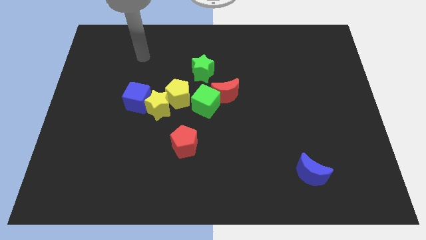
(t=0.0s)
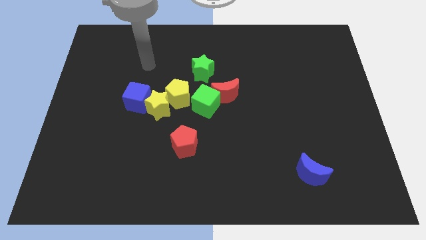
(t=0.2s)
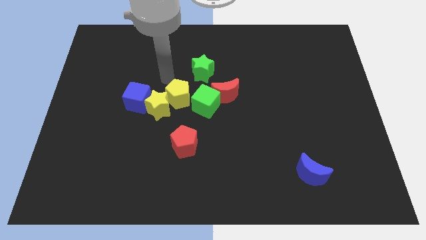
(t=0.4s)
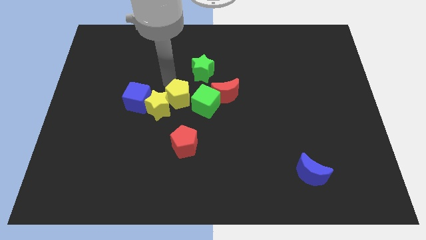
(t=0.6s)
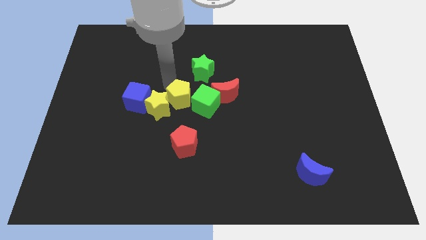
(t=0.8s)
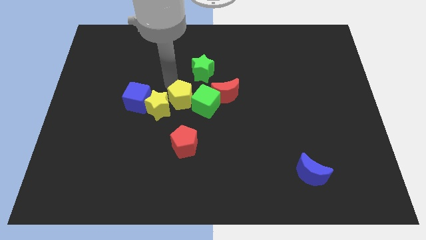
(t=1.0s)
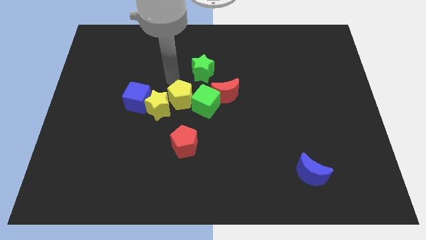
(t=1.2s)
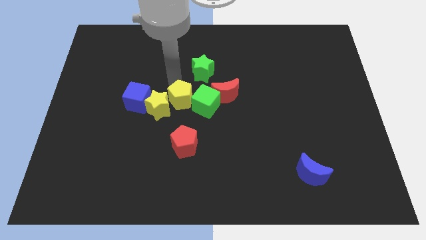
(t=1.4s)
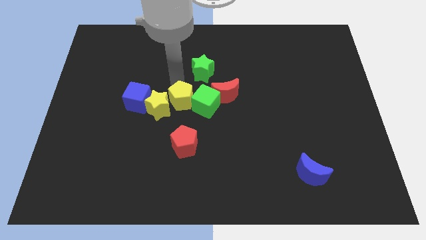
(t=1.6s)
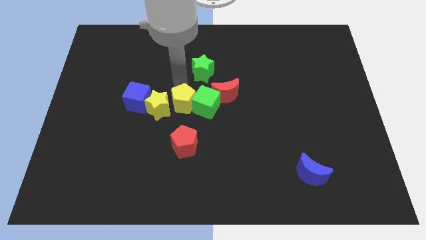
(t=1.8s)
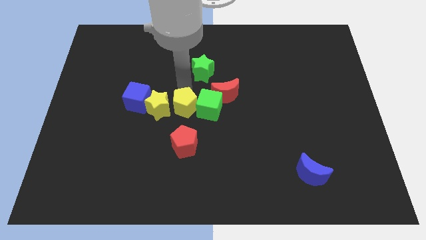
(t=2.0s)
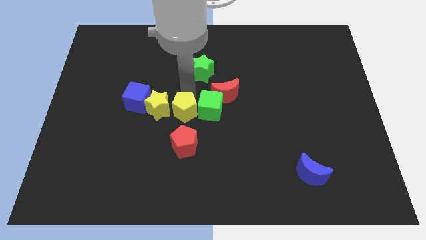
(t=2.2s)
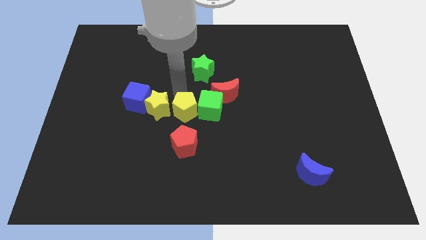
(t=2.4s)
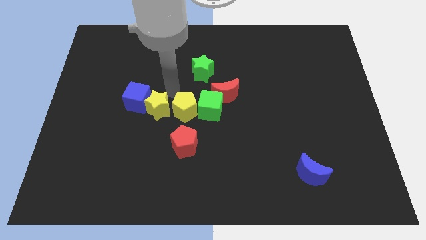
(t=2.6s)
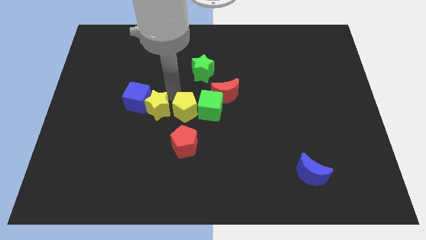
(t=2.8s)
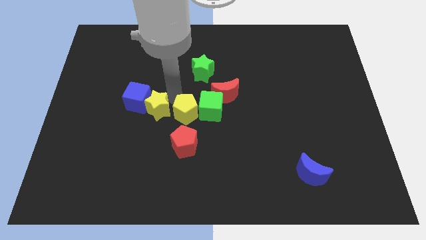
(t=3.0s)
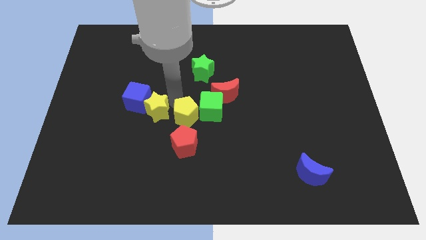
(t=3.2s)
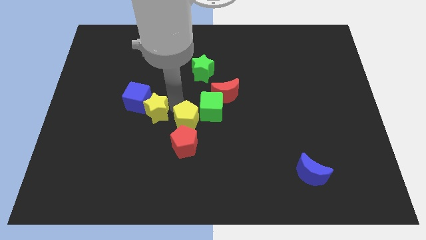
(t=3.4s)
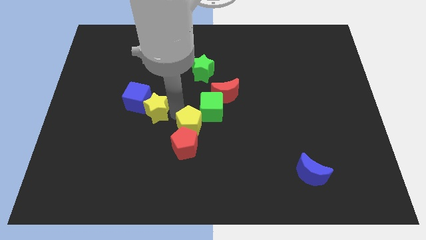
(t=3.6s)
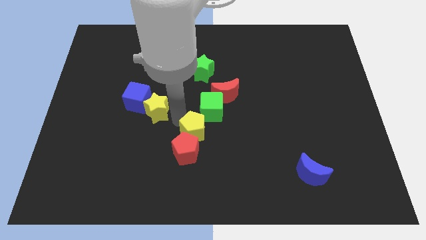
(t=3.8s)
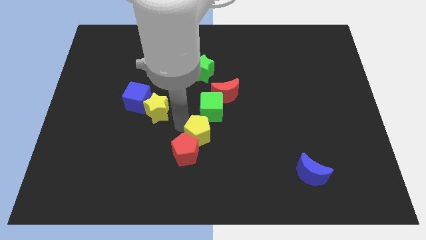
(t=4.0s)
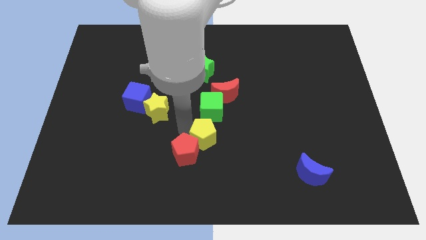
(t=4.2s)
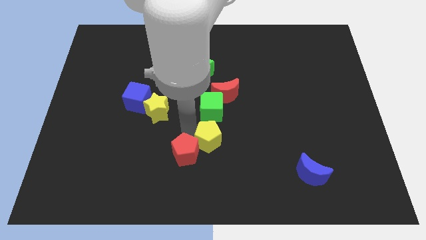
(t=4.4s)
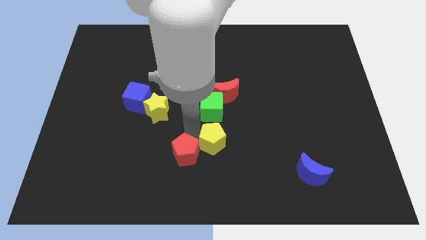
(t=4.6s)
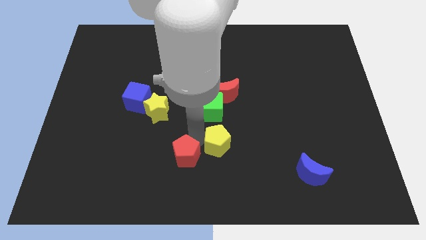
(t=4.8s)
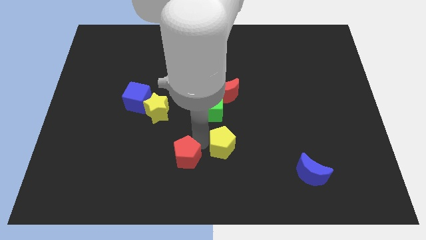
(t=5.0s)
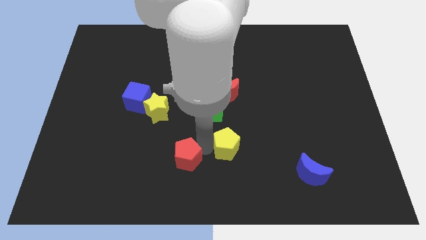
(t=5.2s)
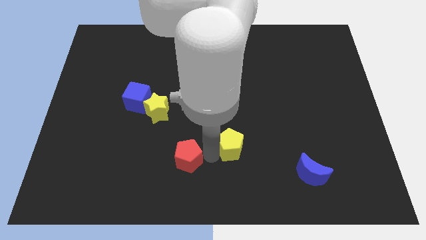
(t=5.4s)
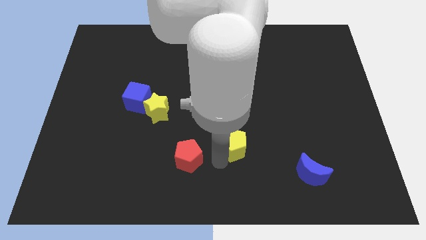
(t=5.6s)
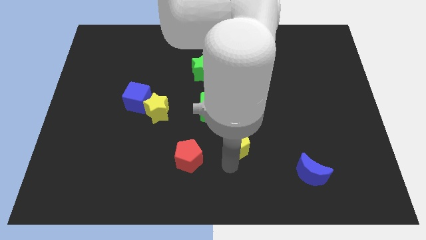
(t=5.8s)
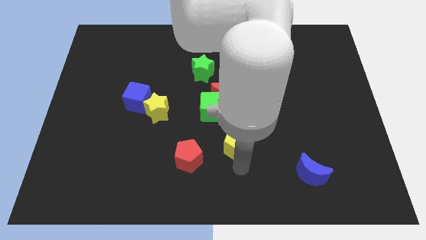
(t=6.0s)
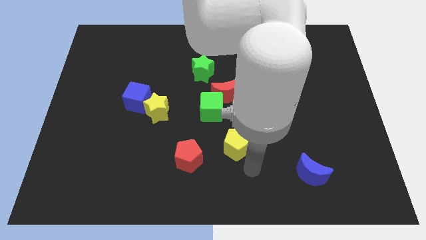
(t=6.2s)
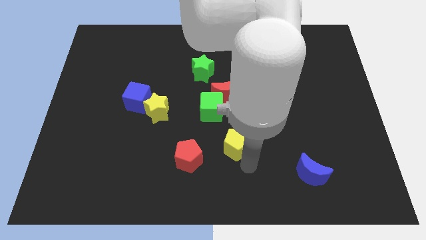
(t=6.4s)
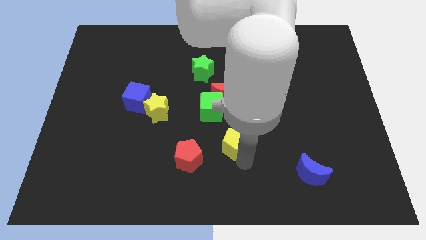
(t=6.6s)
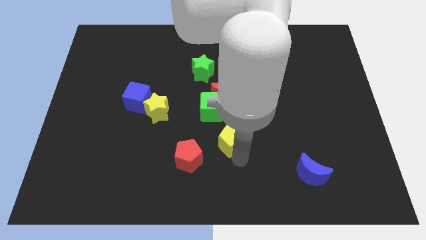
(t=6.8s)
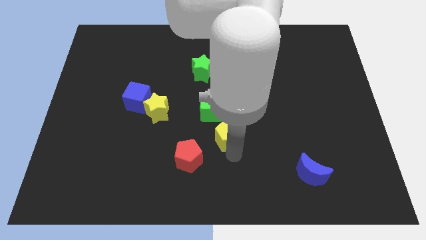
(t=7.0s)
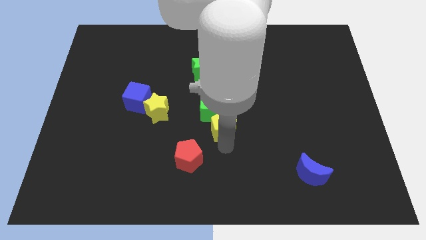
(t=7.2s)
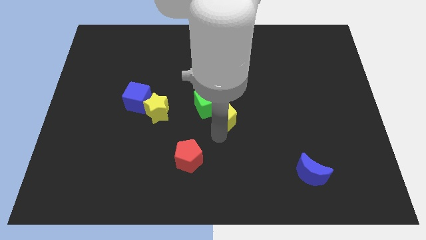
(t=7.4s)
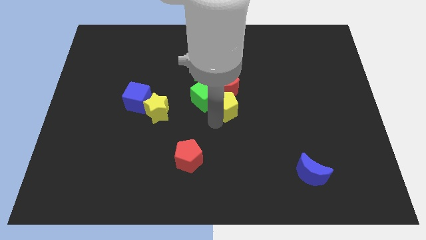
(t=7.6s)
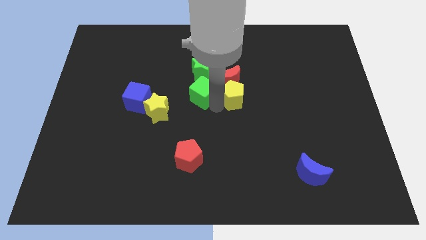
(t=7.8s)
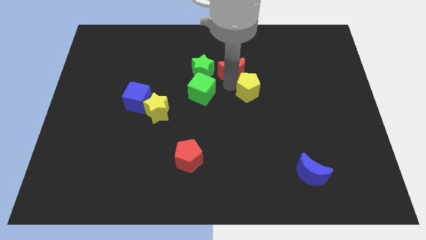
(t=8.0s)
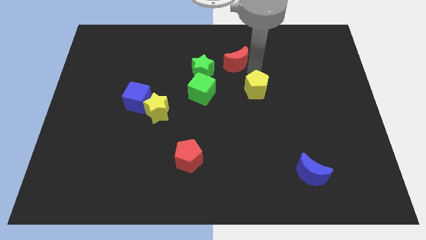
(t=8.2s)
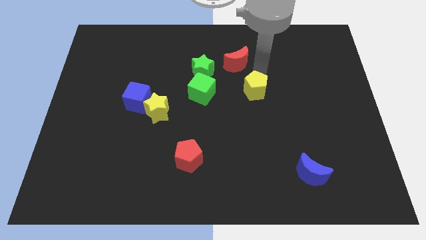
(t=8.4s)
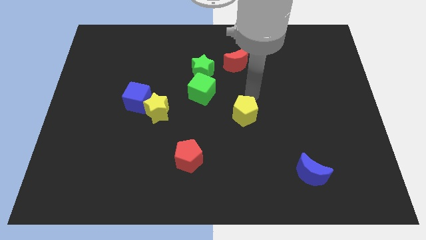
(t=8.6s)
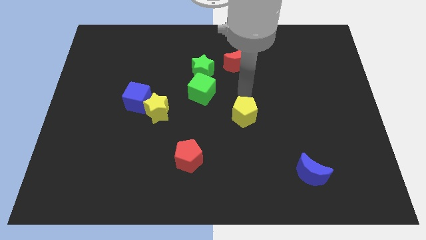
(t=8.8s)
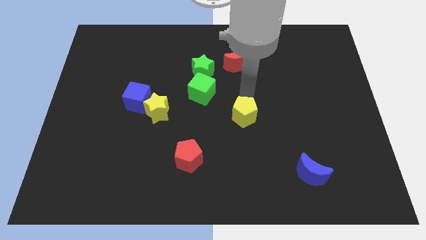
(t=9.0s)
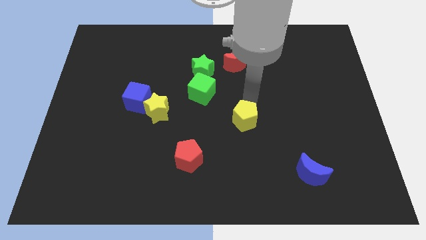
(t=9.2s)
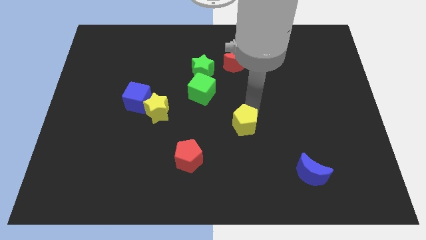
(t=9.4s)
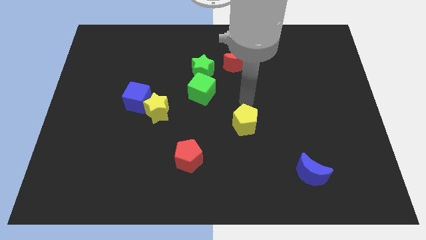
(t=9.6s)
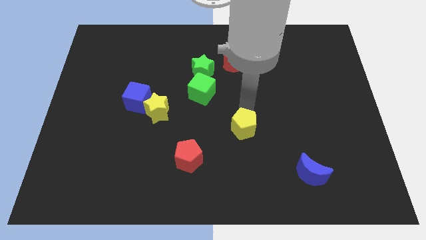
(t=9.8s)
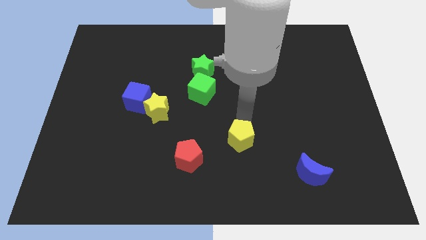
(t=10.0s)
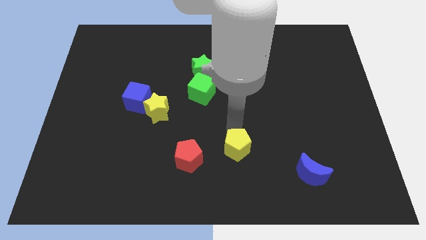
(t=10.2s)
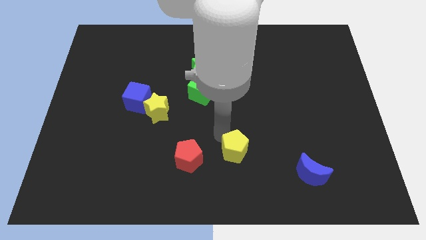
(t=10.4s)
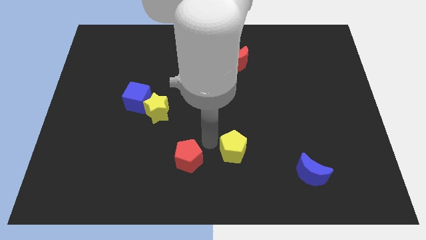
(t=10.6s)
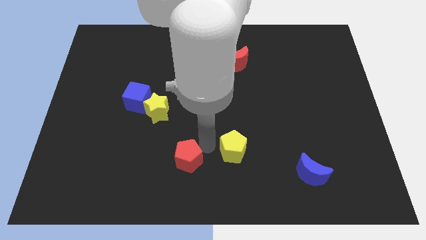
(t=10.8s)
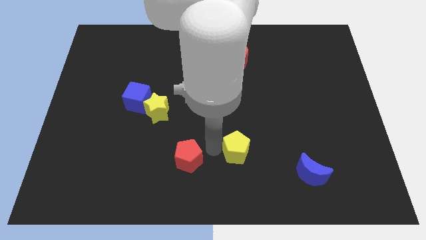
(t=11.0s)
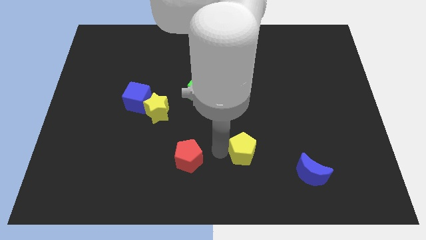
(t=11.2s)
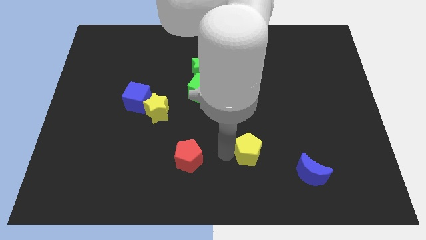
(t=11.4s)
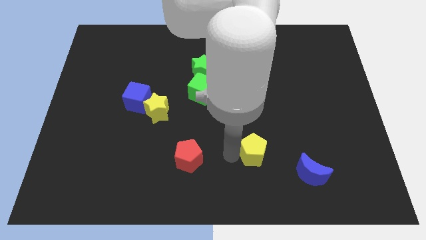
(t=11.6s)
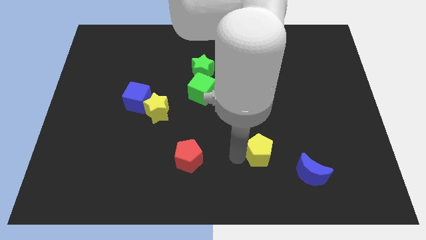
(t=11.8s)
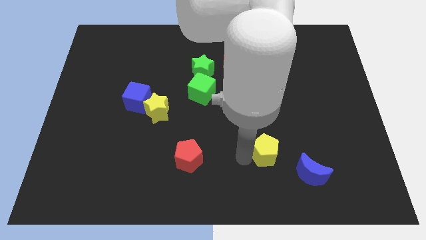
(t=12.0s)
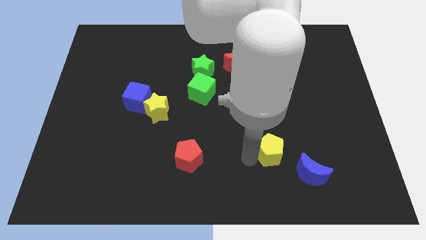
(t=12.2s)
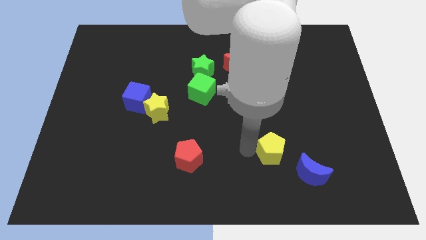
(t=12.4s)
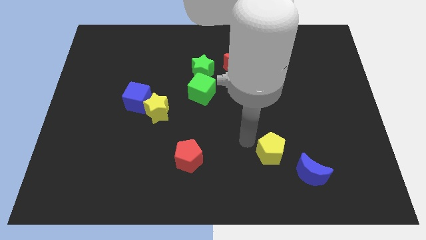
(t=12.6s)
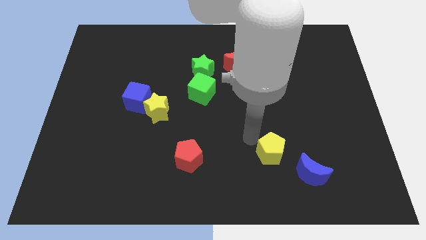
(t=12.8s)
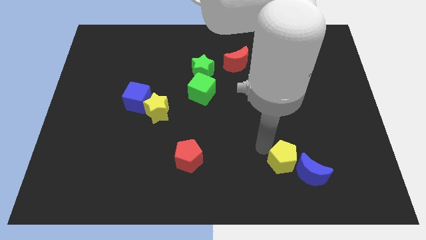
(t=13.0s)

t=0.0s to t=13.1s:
push the yellow pentagon close to the blue moon
